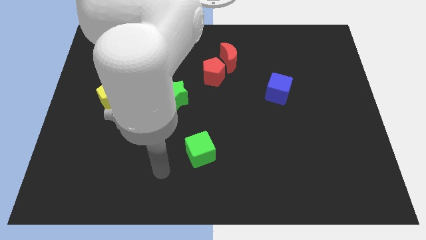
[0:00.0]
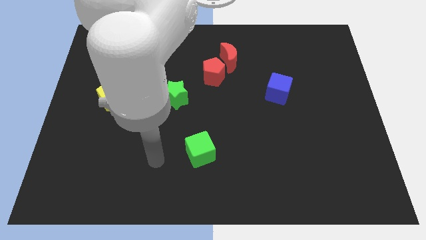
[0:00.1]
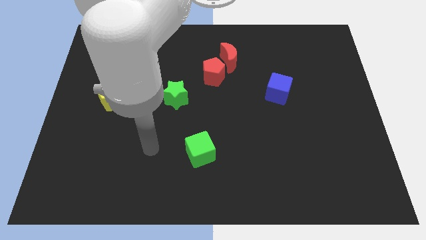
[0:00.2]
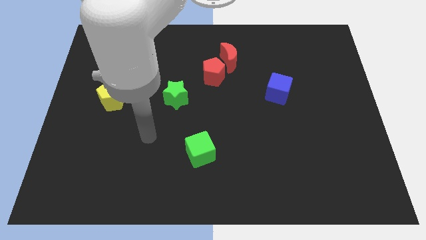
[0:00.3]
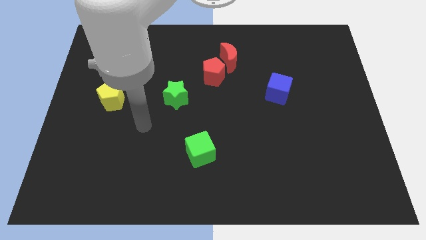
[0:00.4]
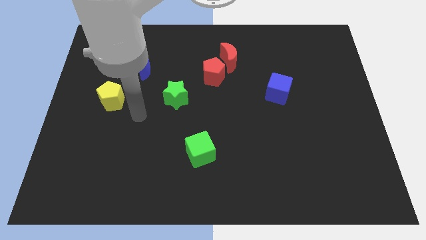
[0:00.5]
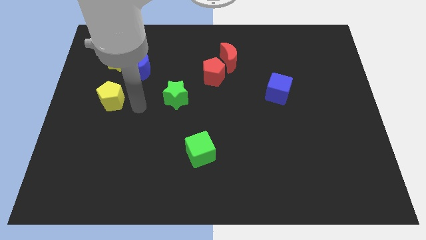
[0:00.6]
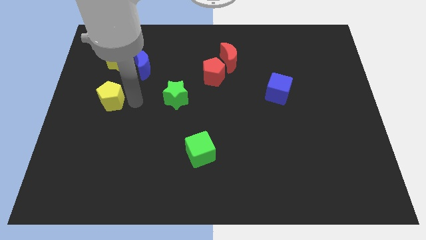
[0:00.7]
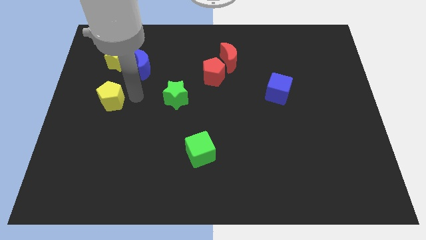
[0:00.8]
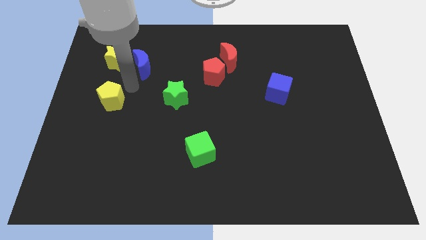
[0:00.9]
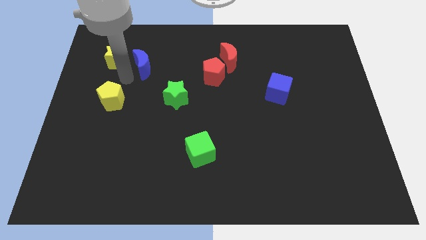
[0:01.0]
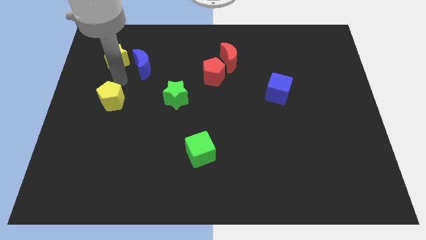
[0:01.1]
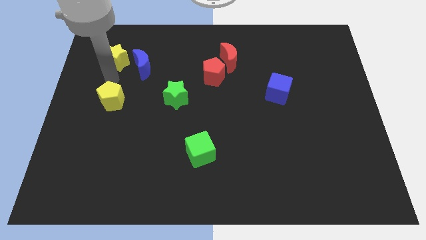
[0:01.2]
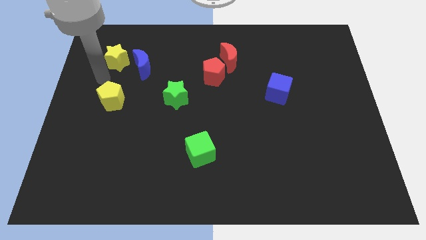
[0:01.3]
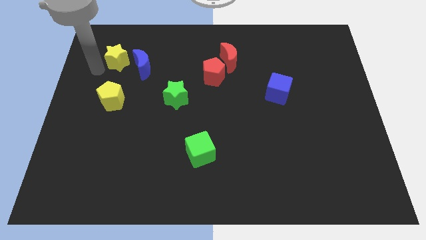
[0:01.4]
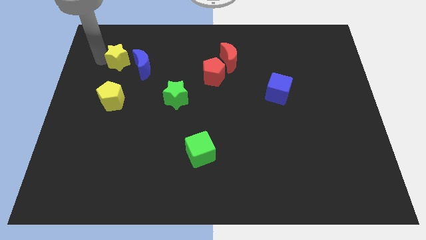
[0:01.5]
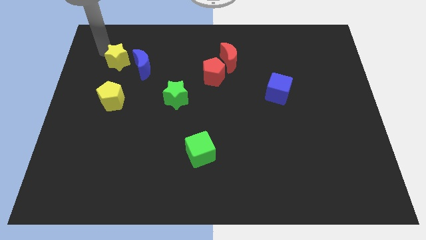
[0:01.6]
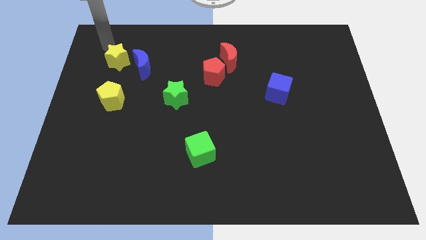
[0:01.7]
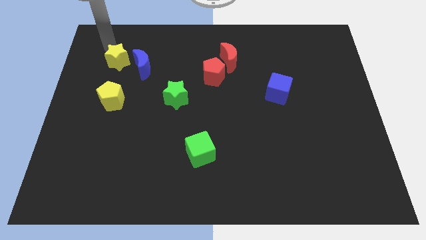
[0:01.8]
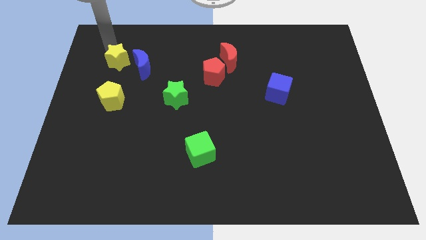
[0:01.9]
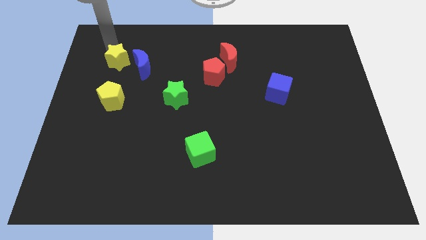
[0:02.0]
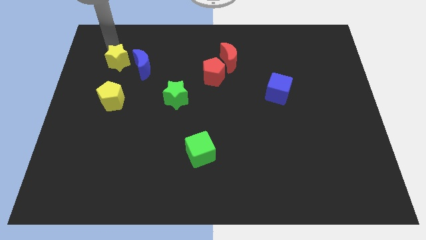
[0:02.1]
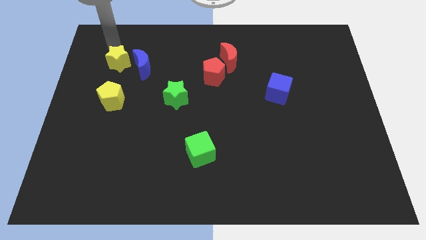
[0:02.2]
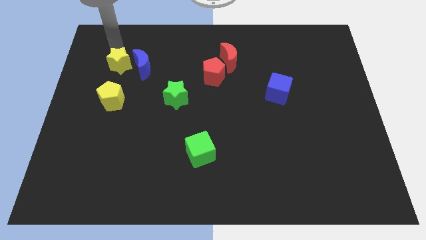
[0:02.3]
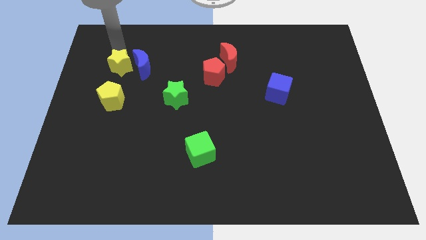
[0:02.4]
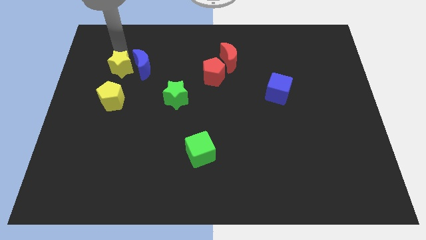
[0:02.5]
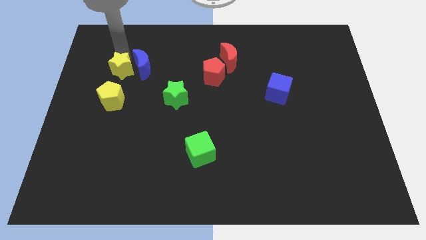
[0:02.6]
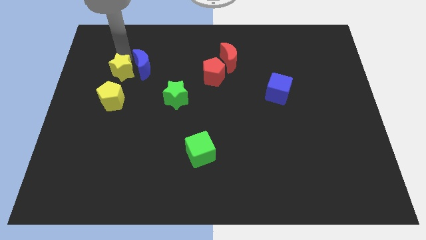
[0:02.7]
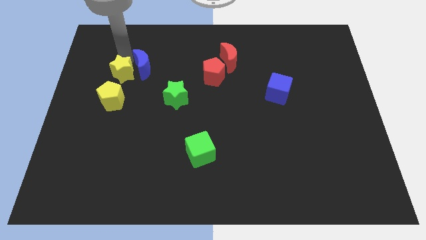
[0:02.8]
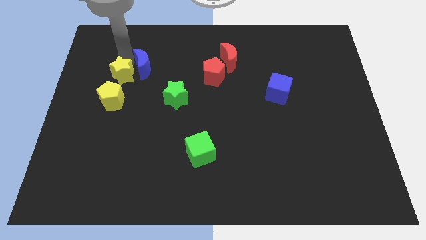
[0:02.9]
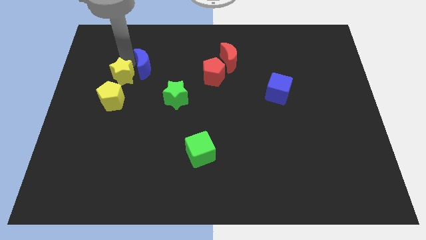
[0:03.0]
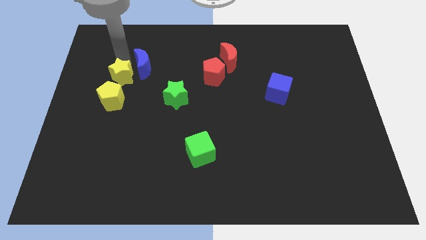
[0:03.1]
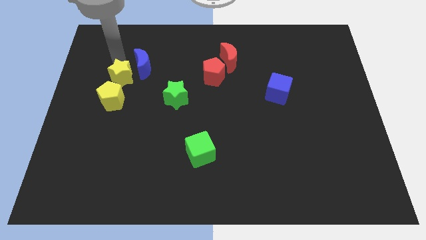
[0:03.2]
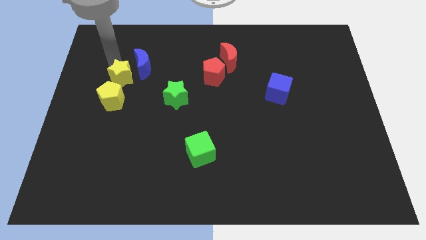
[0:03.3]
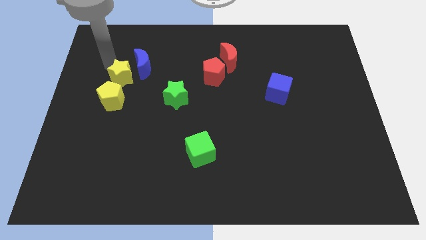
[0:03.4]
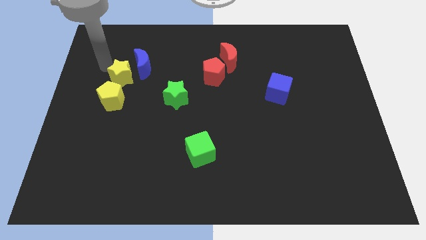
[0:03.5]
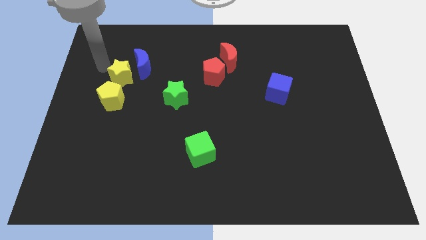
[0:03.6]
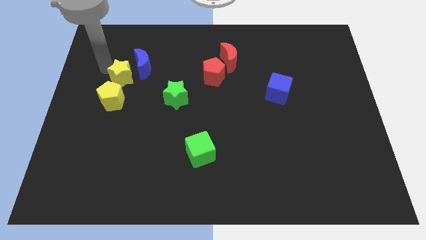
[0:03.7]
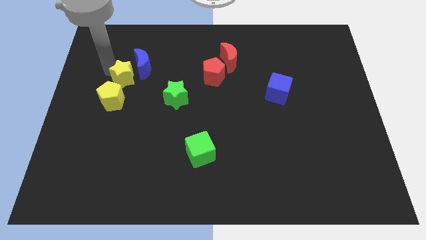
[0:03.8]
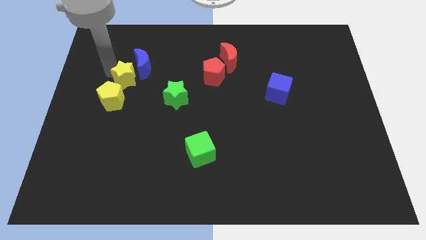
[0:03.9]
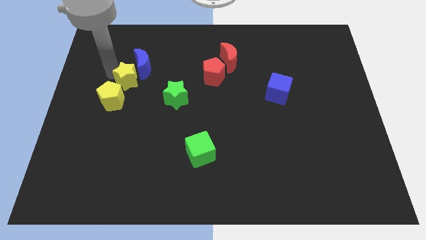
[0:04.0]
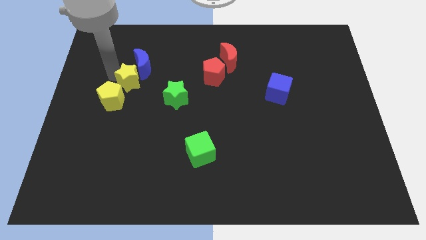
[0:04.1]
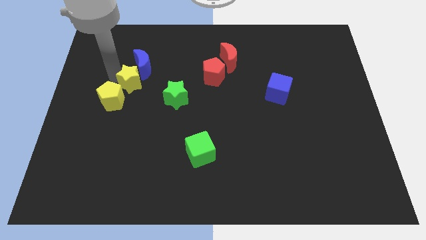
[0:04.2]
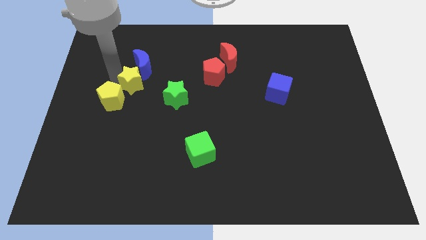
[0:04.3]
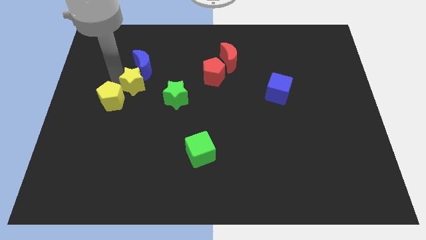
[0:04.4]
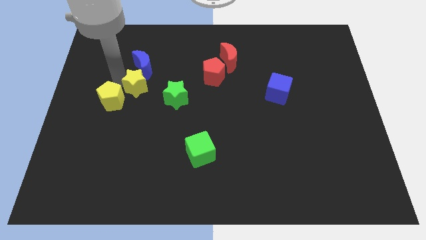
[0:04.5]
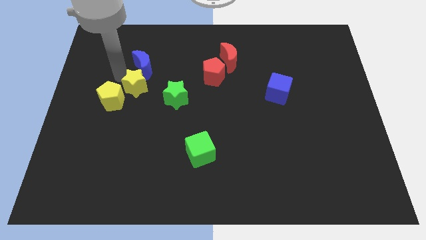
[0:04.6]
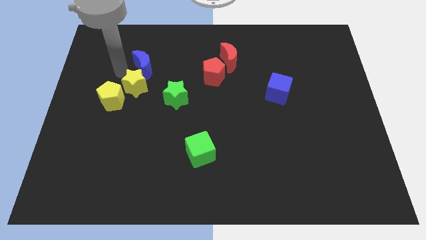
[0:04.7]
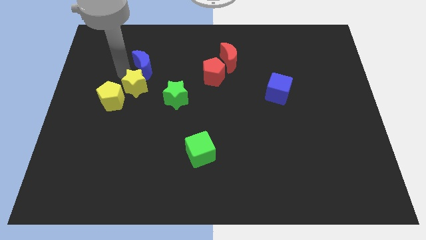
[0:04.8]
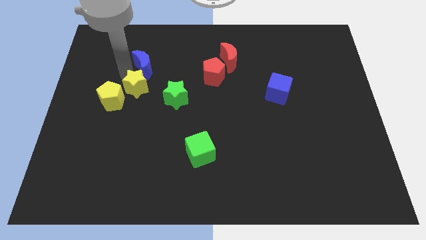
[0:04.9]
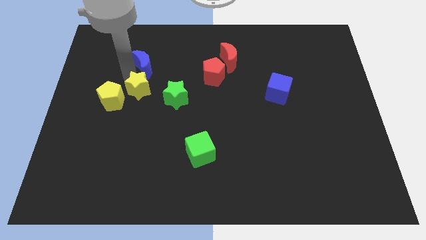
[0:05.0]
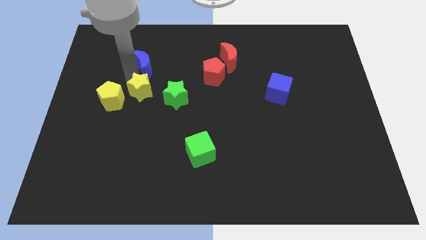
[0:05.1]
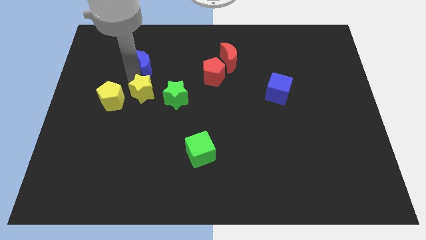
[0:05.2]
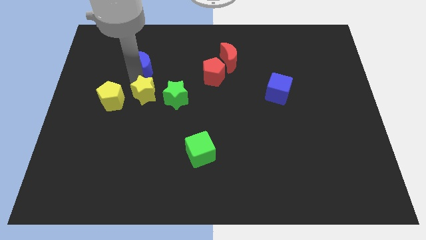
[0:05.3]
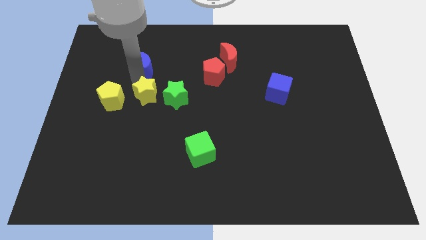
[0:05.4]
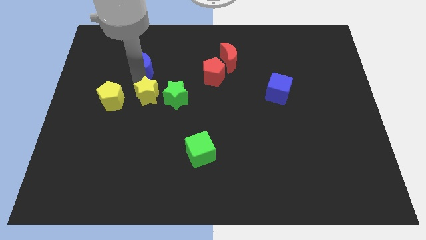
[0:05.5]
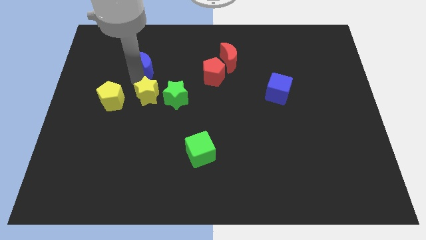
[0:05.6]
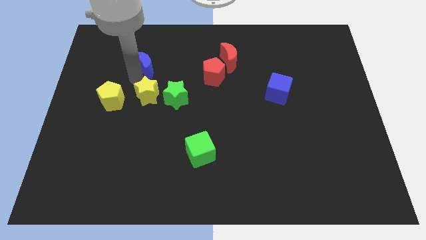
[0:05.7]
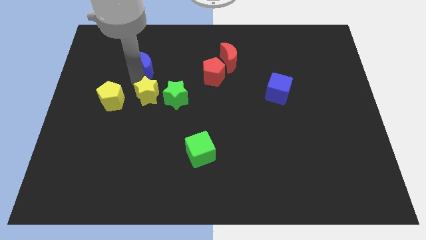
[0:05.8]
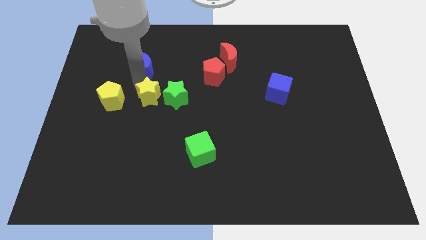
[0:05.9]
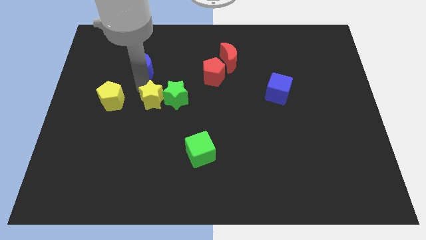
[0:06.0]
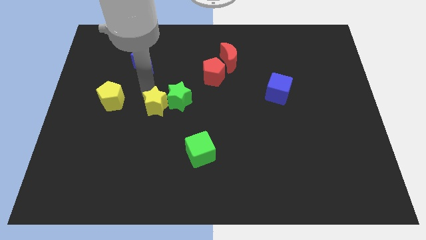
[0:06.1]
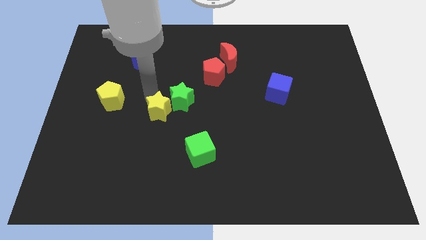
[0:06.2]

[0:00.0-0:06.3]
push the yellow star diagonally downwards and to the right

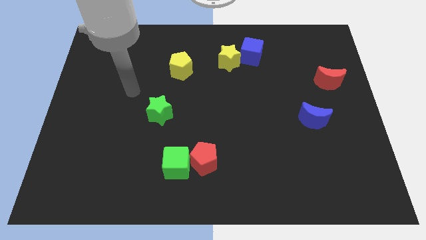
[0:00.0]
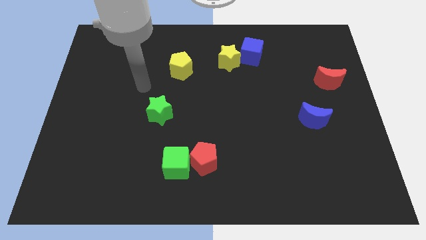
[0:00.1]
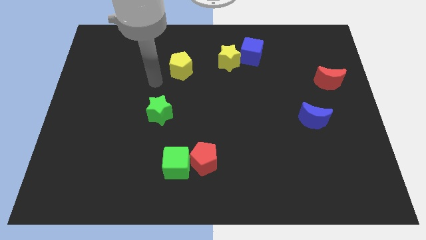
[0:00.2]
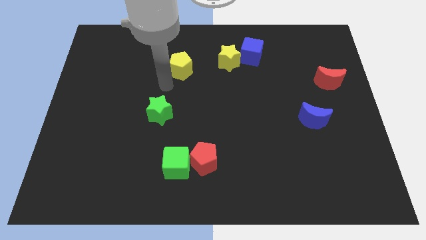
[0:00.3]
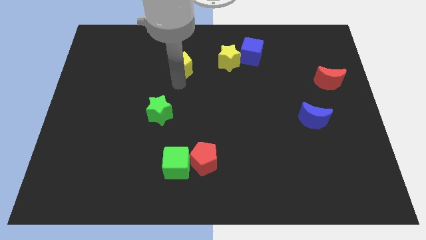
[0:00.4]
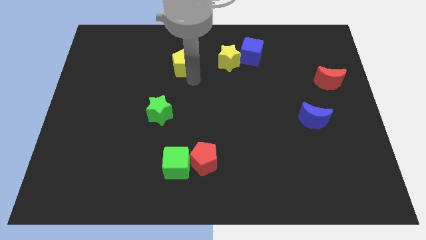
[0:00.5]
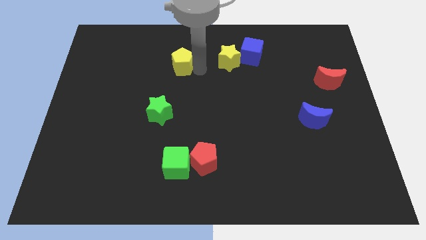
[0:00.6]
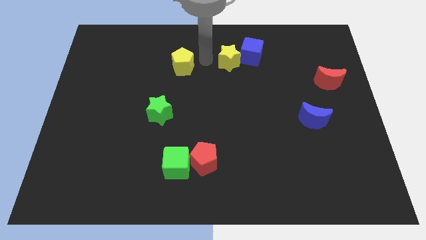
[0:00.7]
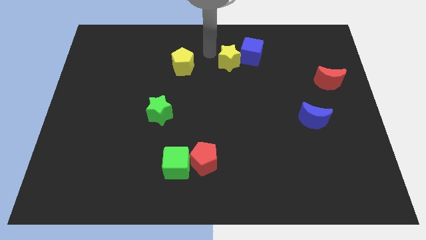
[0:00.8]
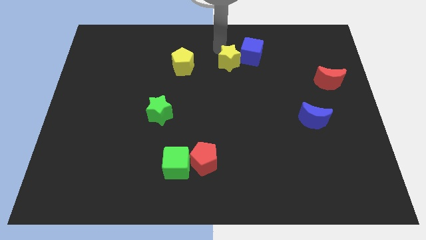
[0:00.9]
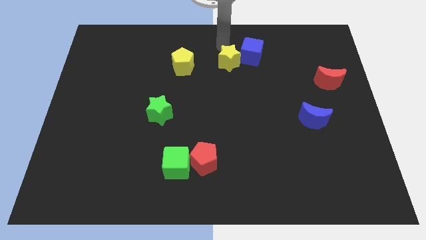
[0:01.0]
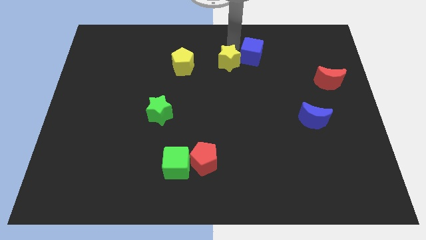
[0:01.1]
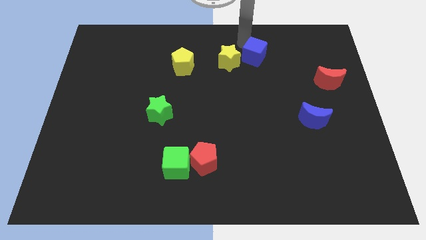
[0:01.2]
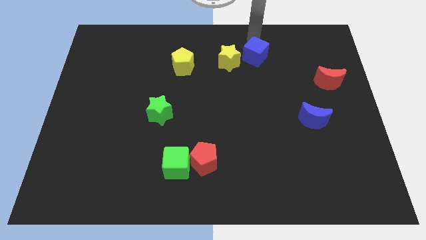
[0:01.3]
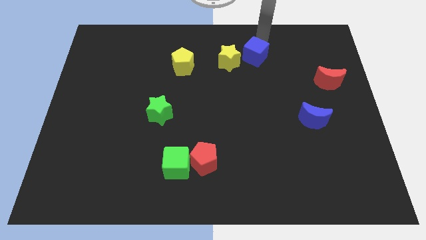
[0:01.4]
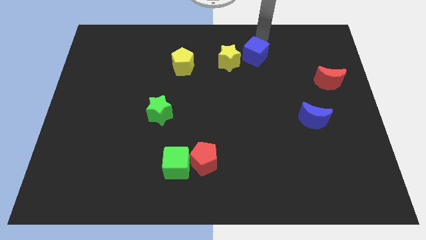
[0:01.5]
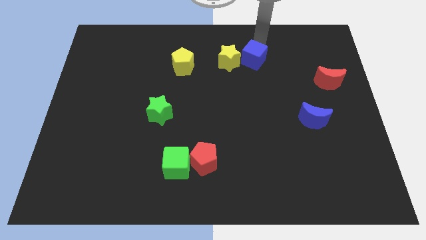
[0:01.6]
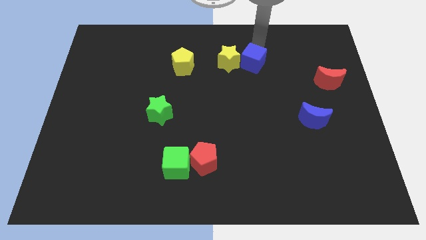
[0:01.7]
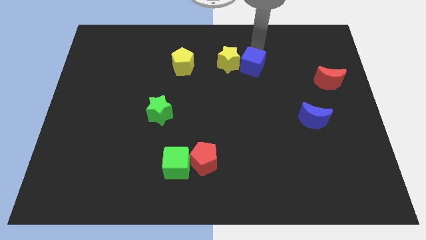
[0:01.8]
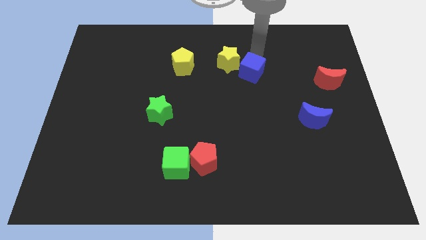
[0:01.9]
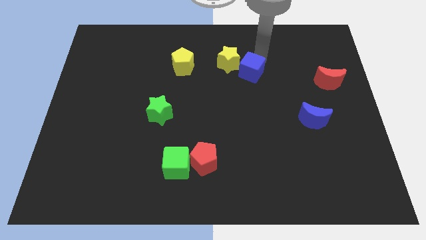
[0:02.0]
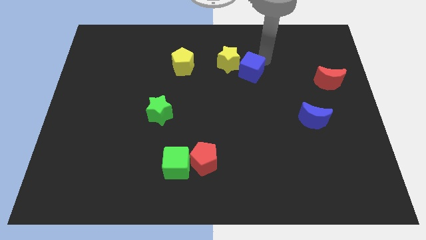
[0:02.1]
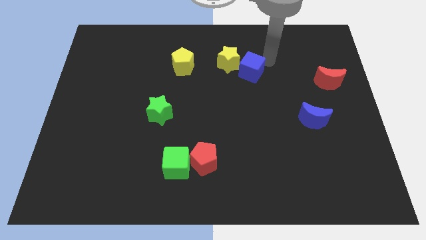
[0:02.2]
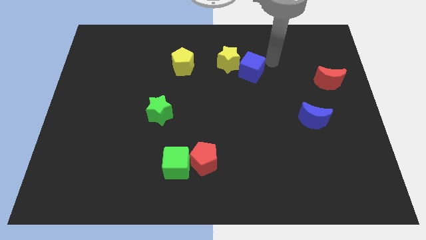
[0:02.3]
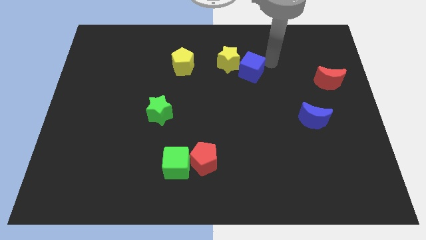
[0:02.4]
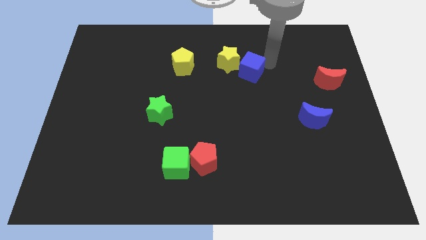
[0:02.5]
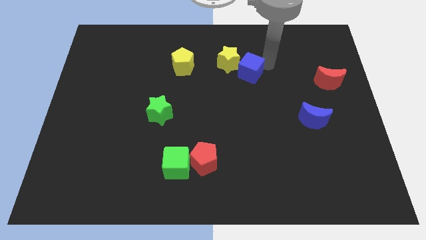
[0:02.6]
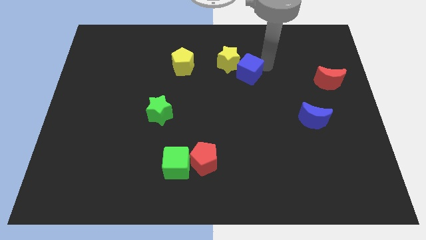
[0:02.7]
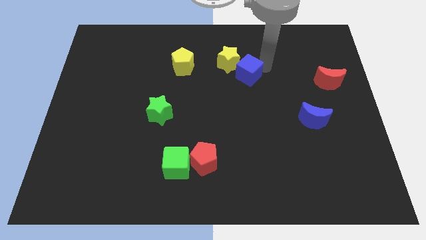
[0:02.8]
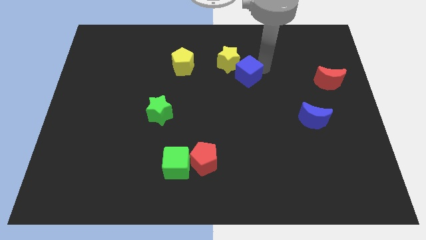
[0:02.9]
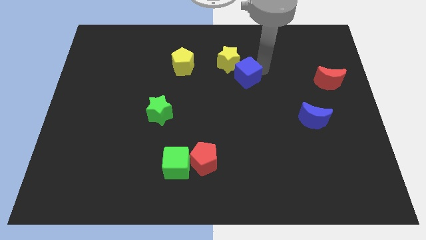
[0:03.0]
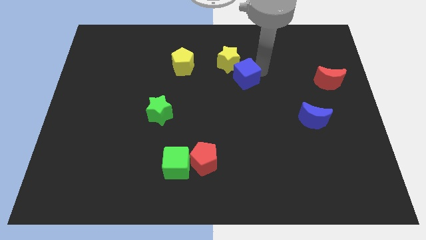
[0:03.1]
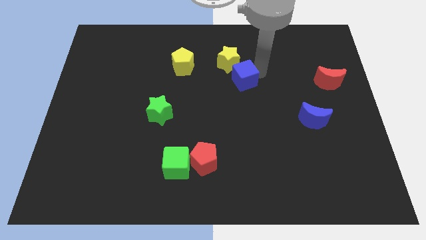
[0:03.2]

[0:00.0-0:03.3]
slide the blue cube downwards and then left slightly
